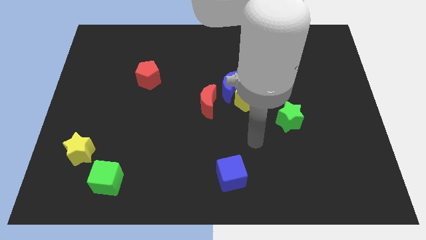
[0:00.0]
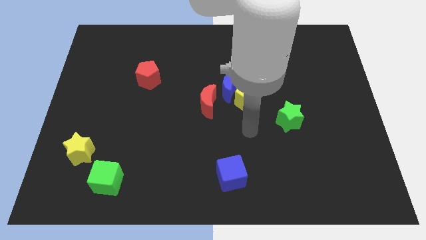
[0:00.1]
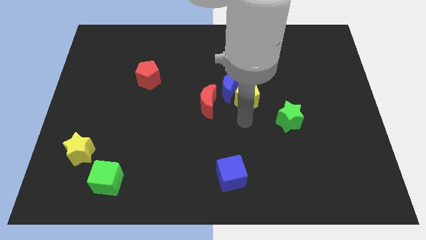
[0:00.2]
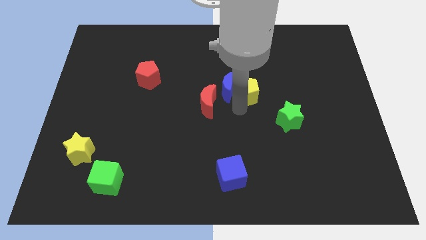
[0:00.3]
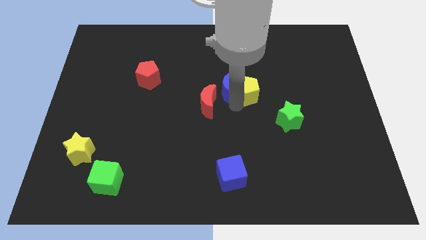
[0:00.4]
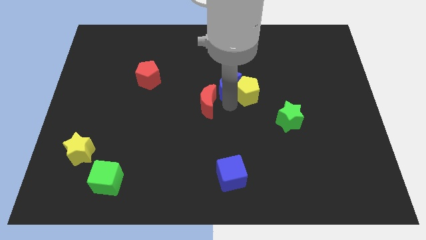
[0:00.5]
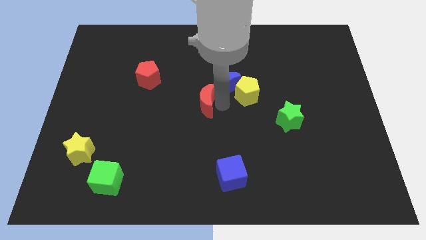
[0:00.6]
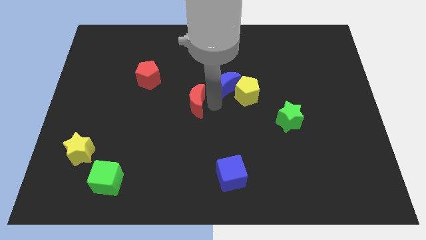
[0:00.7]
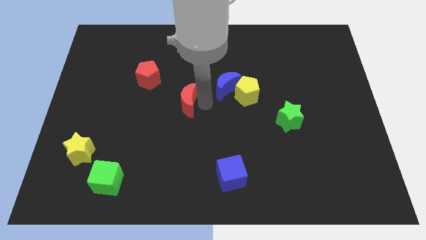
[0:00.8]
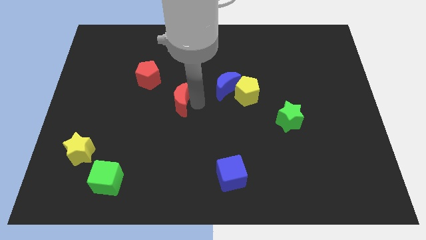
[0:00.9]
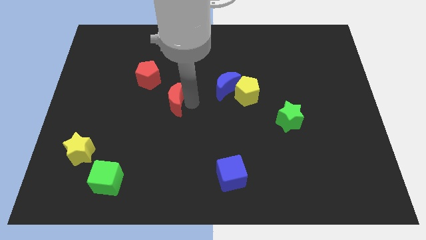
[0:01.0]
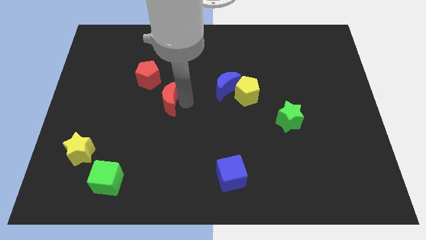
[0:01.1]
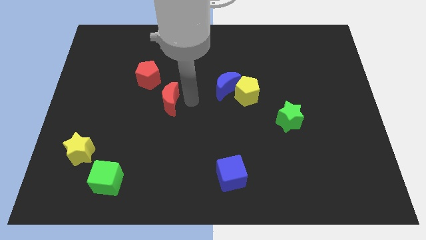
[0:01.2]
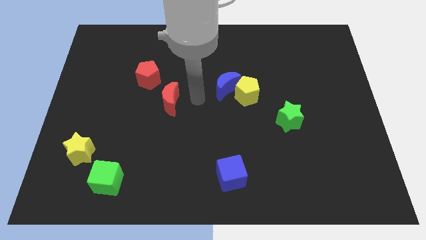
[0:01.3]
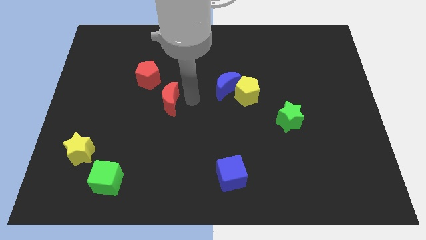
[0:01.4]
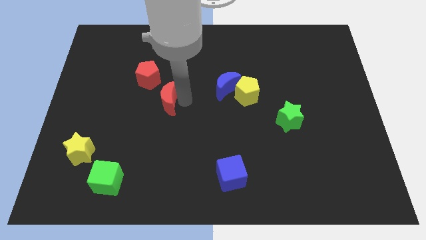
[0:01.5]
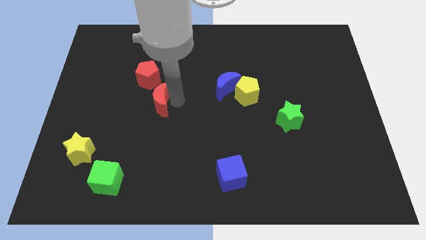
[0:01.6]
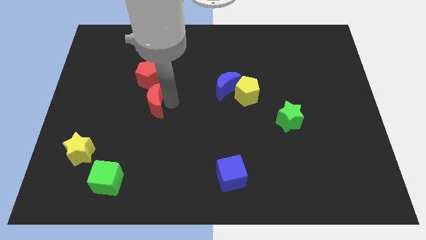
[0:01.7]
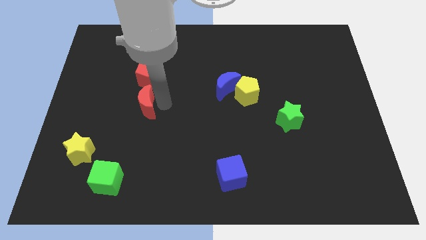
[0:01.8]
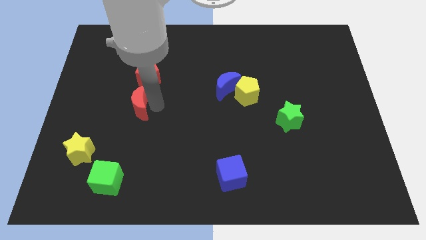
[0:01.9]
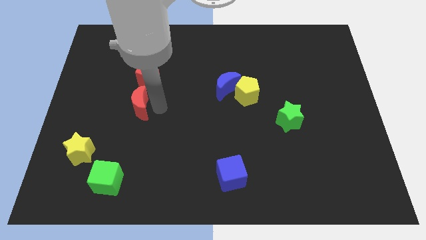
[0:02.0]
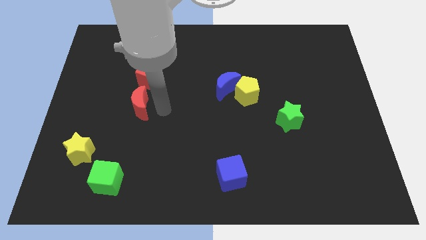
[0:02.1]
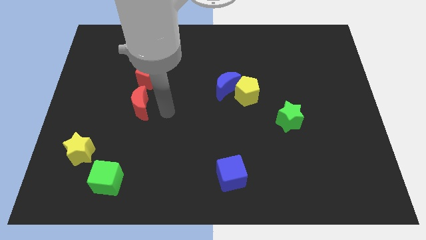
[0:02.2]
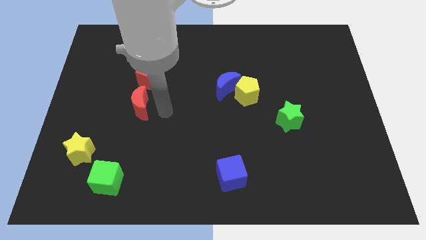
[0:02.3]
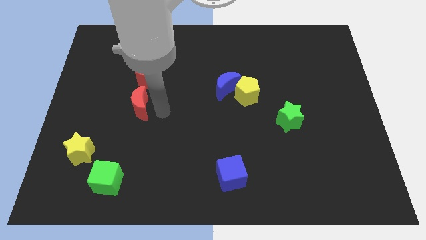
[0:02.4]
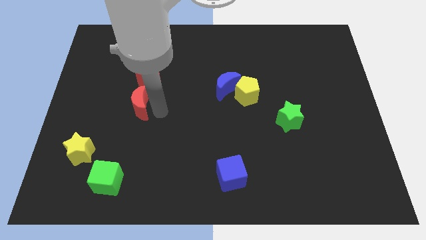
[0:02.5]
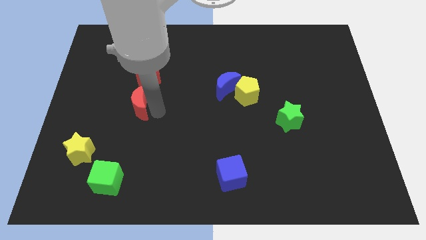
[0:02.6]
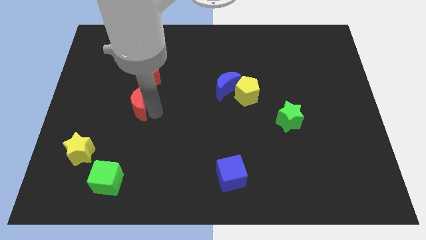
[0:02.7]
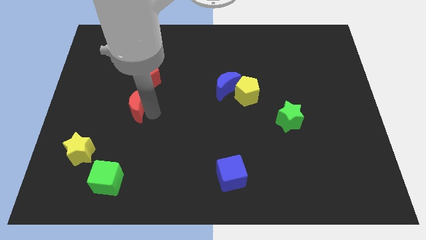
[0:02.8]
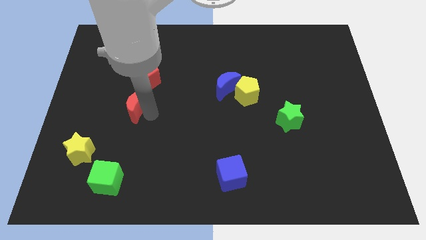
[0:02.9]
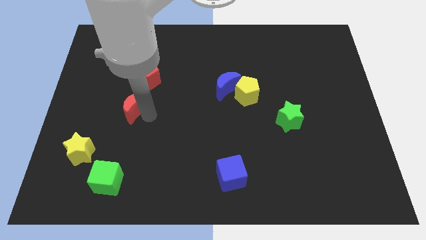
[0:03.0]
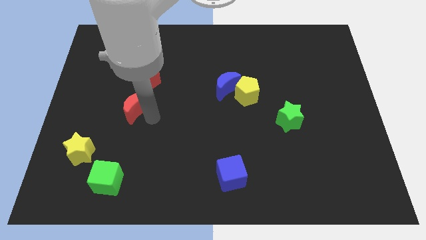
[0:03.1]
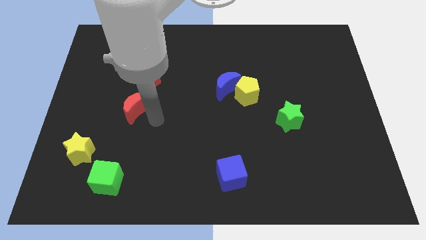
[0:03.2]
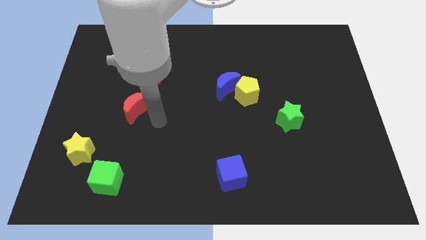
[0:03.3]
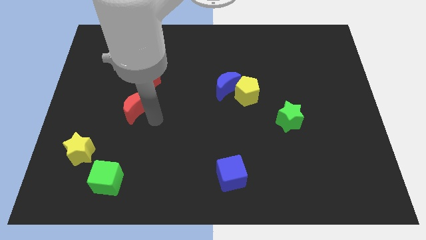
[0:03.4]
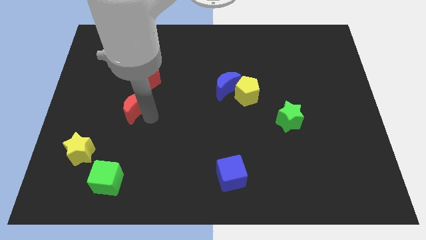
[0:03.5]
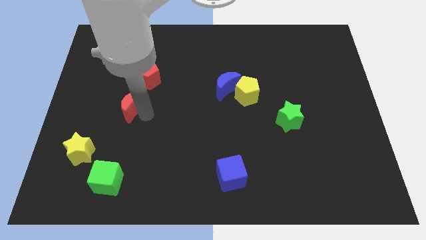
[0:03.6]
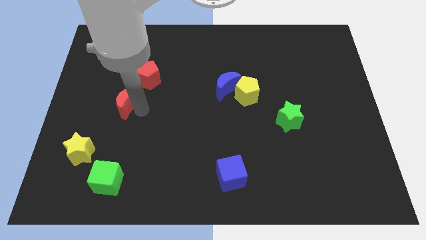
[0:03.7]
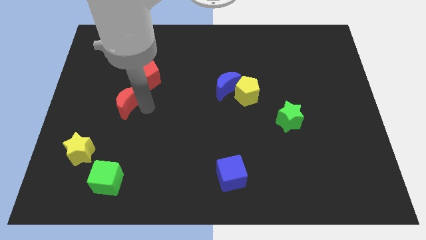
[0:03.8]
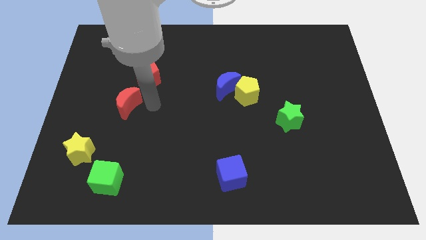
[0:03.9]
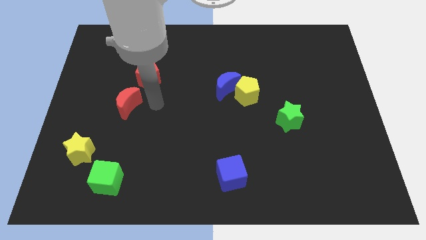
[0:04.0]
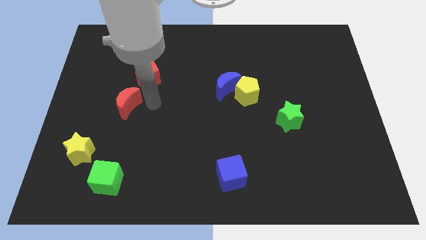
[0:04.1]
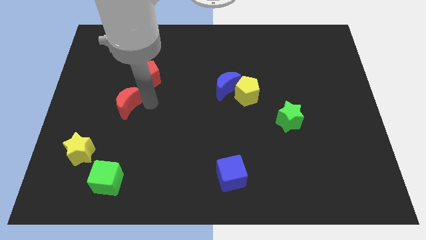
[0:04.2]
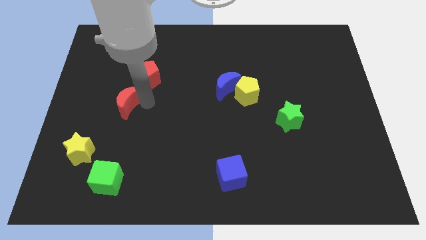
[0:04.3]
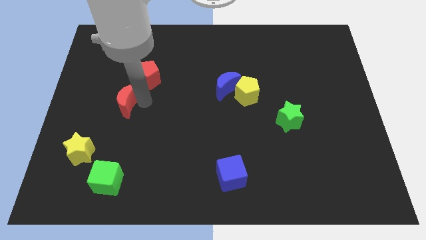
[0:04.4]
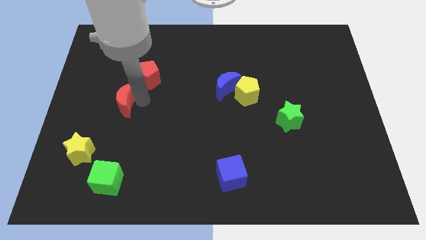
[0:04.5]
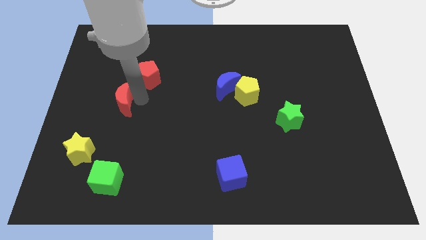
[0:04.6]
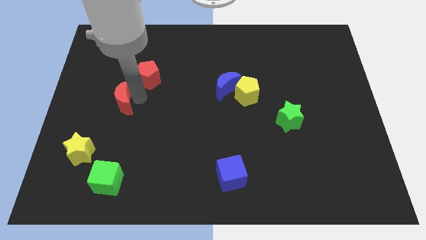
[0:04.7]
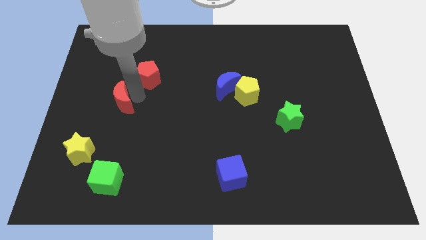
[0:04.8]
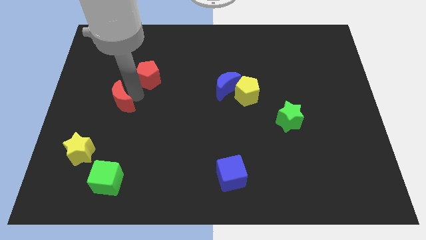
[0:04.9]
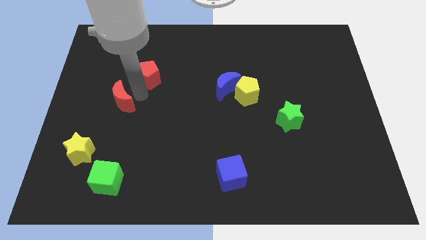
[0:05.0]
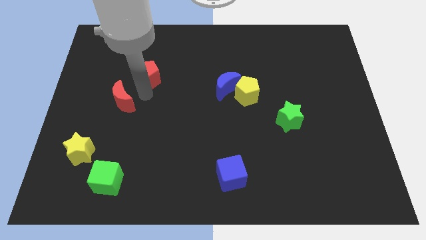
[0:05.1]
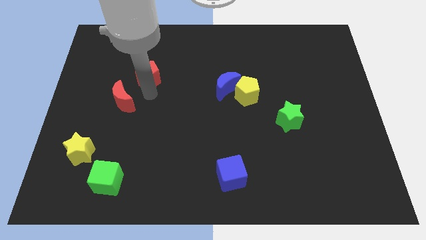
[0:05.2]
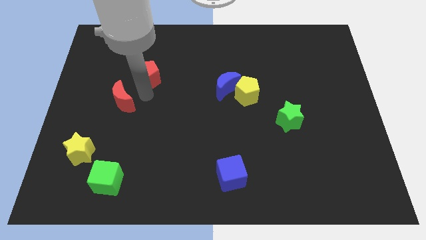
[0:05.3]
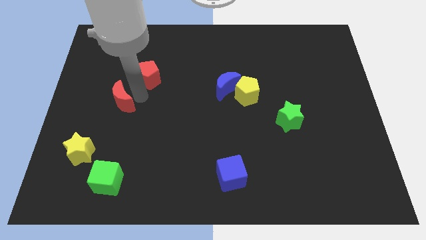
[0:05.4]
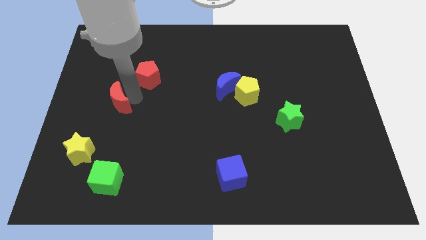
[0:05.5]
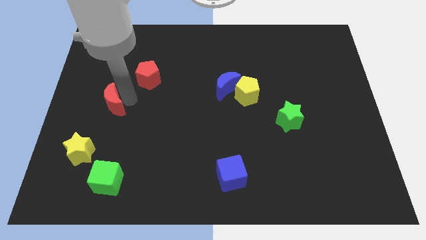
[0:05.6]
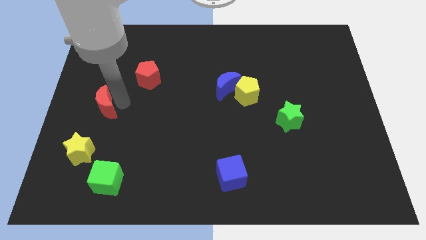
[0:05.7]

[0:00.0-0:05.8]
slide the red moon to the center left

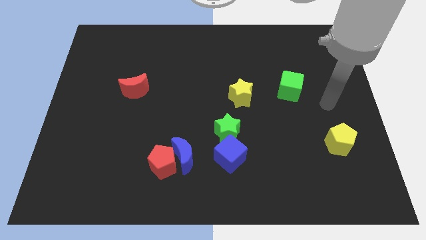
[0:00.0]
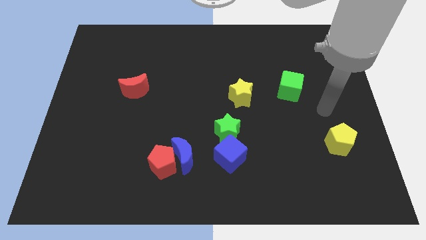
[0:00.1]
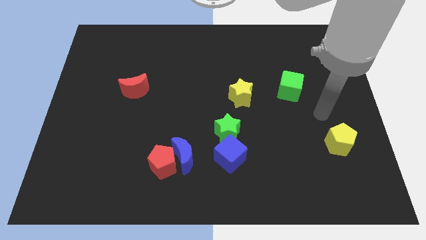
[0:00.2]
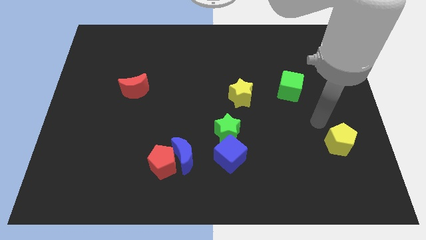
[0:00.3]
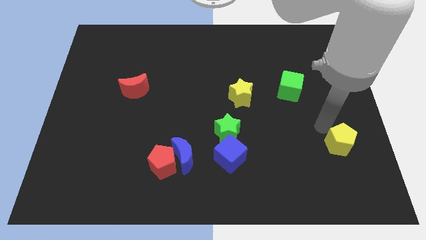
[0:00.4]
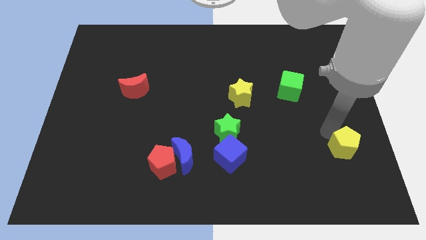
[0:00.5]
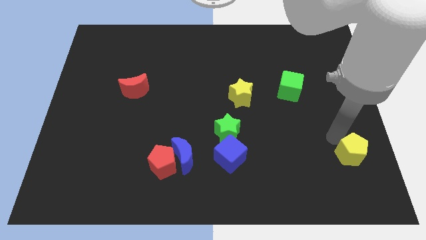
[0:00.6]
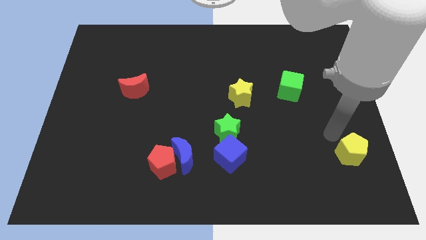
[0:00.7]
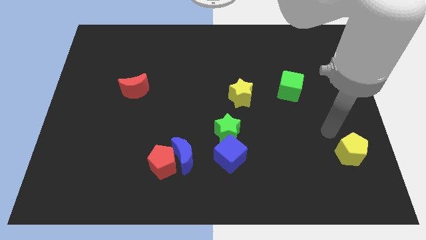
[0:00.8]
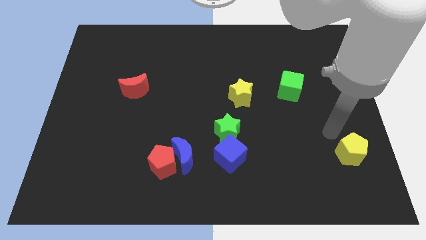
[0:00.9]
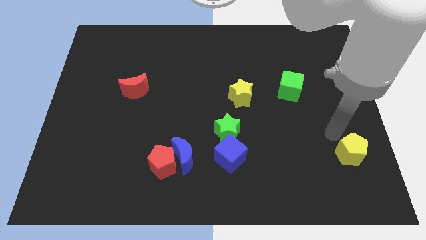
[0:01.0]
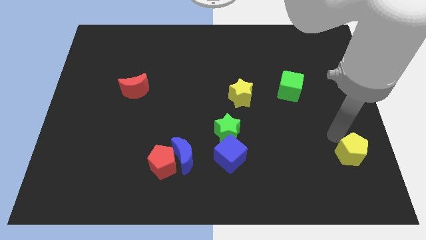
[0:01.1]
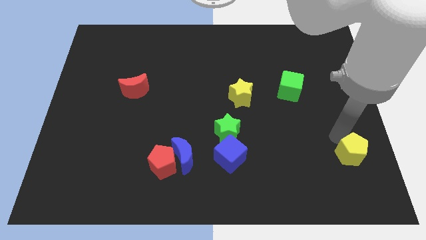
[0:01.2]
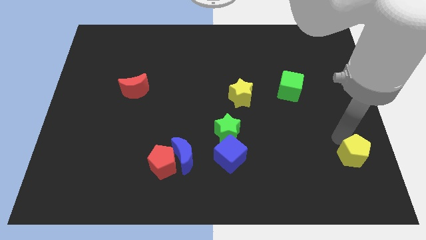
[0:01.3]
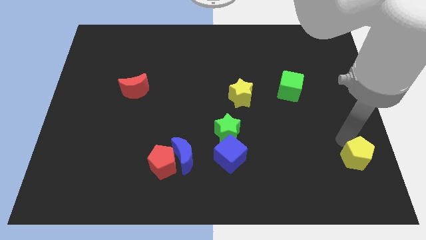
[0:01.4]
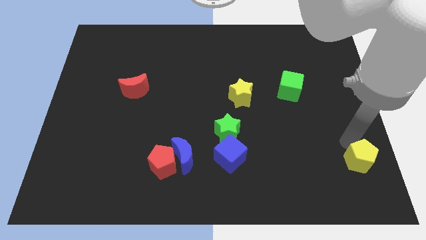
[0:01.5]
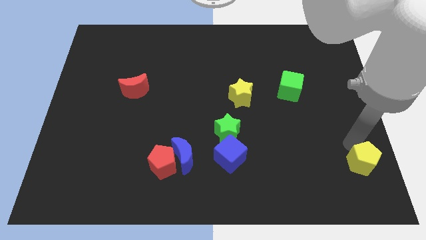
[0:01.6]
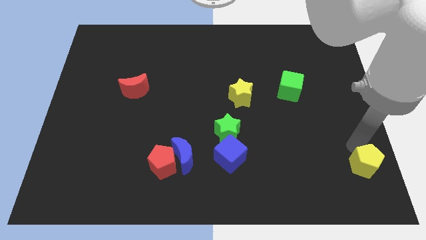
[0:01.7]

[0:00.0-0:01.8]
slide the yellow pentagon to the lower right corner
